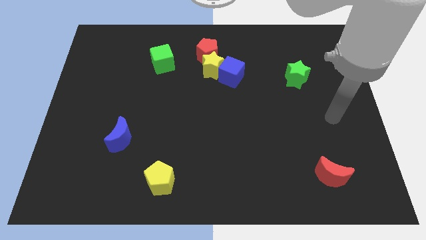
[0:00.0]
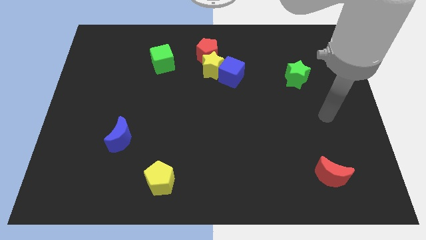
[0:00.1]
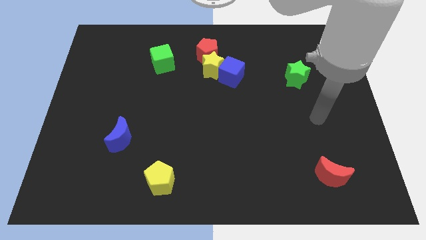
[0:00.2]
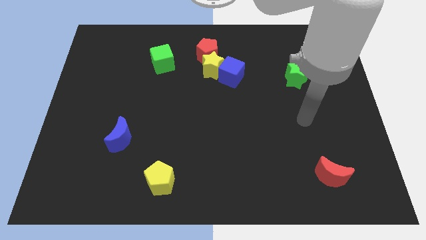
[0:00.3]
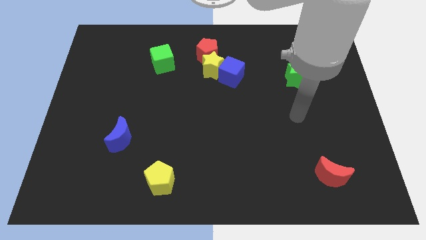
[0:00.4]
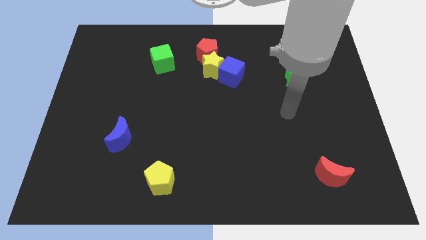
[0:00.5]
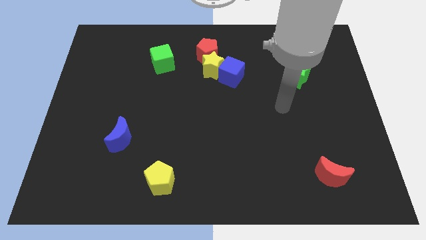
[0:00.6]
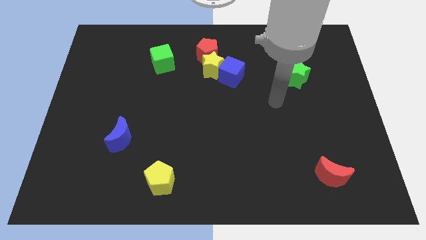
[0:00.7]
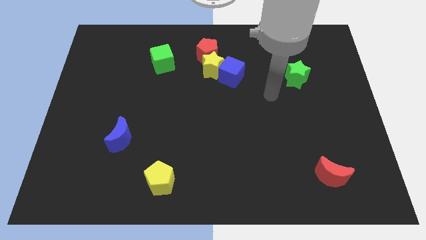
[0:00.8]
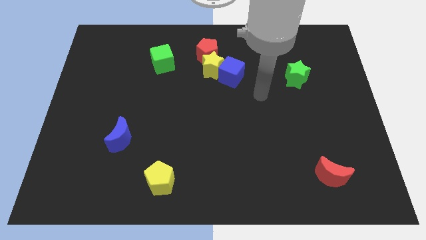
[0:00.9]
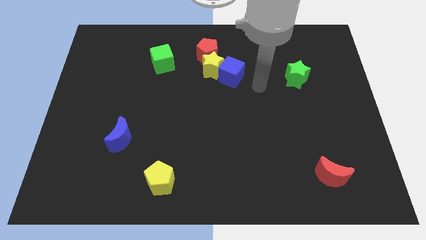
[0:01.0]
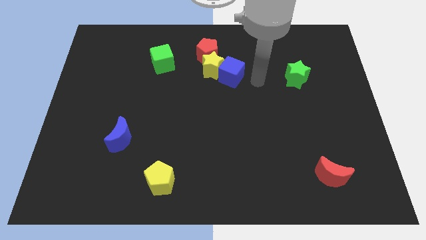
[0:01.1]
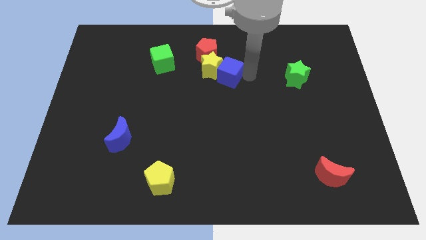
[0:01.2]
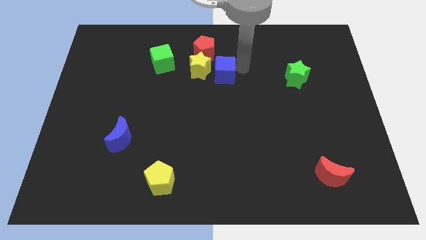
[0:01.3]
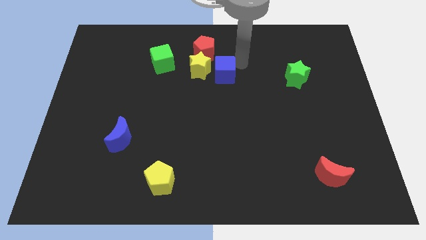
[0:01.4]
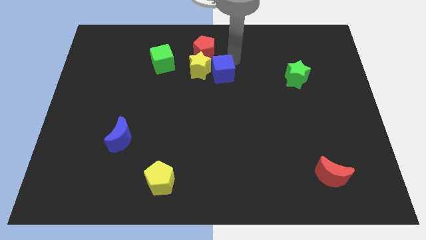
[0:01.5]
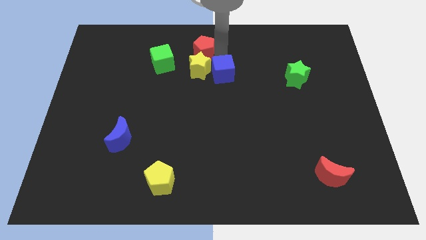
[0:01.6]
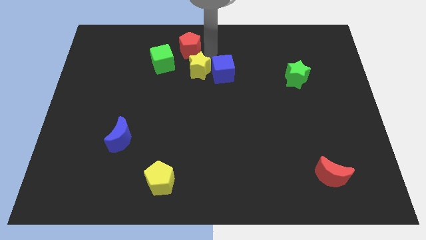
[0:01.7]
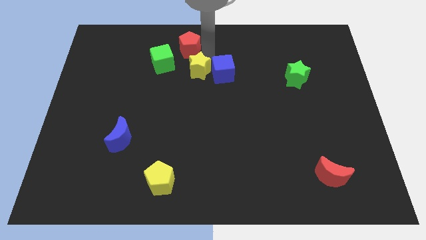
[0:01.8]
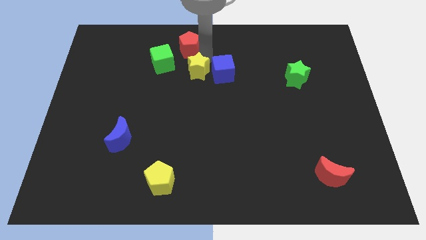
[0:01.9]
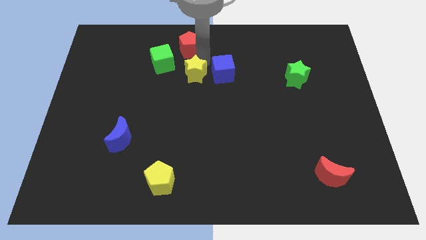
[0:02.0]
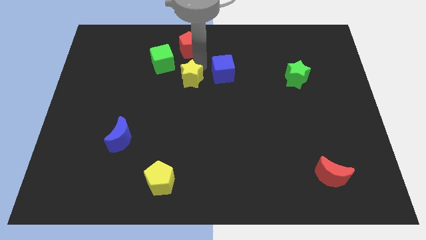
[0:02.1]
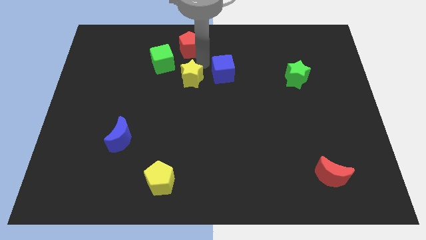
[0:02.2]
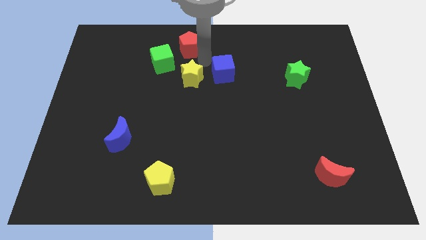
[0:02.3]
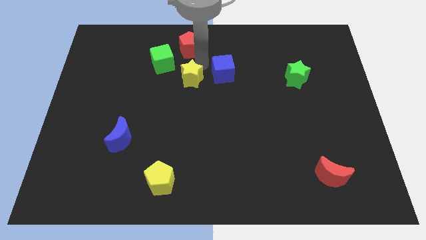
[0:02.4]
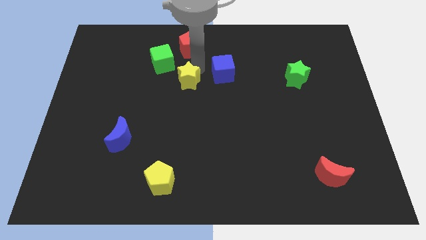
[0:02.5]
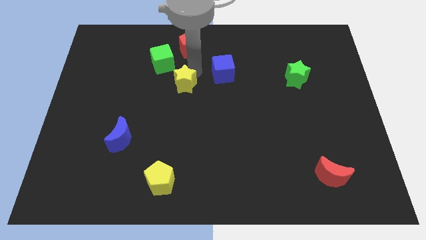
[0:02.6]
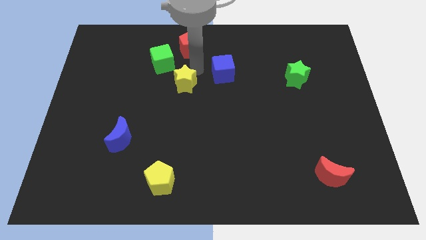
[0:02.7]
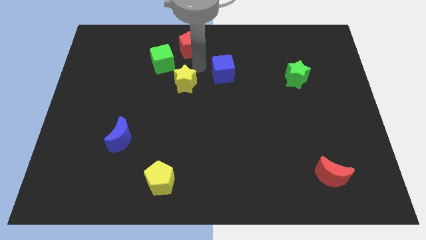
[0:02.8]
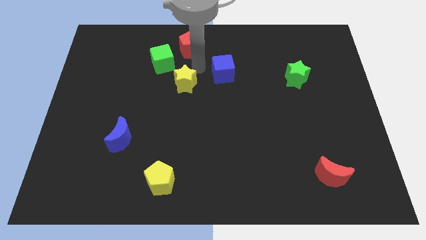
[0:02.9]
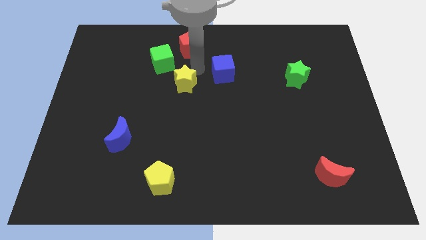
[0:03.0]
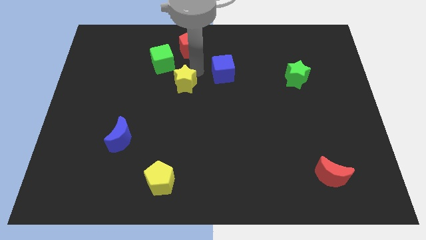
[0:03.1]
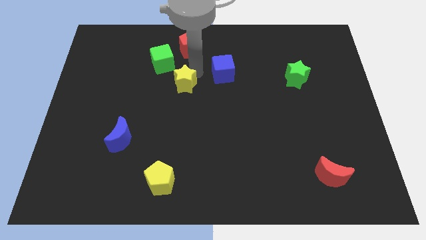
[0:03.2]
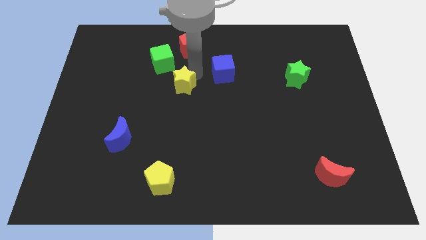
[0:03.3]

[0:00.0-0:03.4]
move the yellow star away from the red pentagon and blue cube

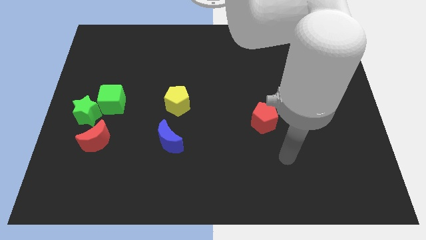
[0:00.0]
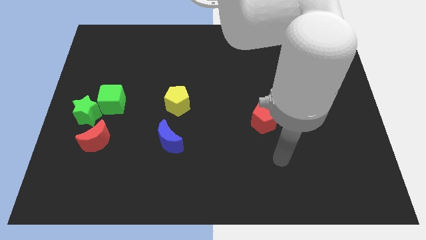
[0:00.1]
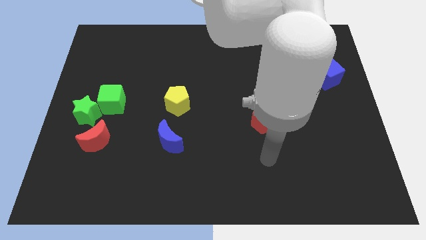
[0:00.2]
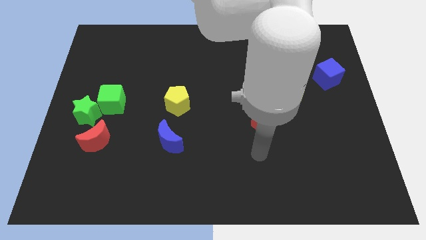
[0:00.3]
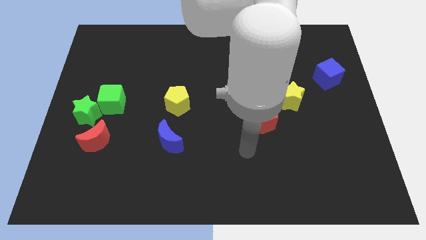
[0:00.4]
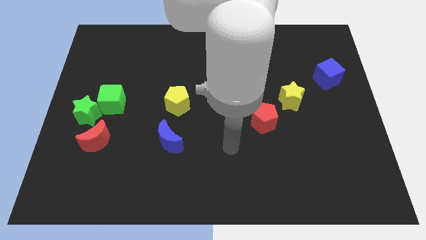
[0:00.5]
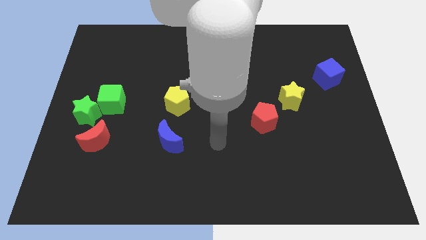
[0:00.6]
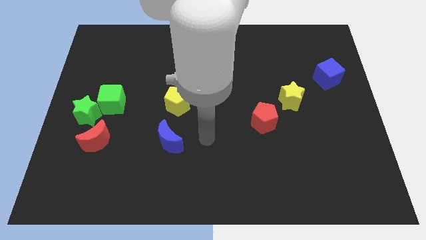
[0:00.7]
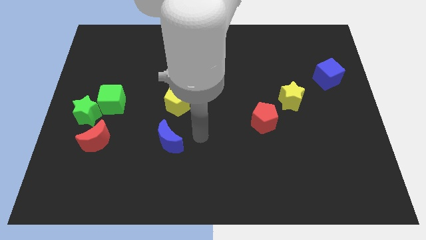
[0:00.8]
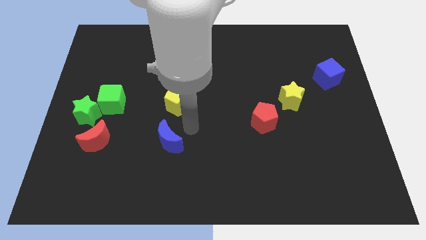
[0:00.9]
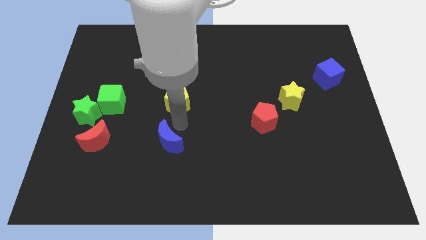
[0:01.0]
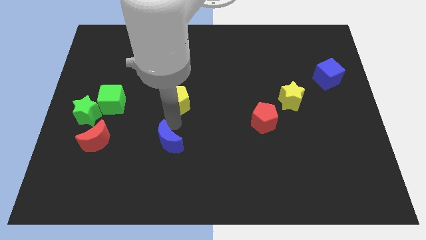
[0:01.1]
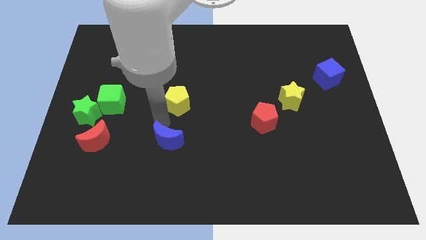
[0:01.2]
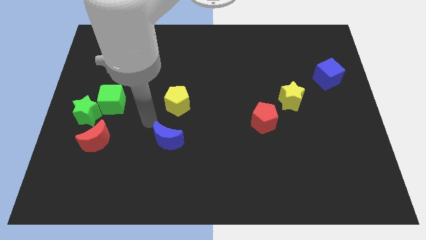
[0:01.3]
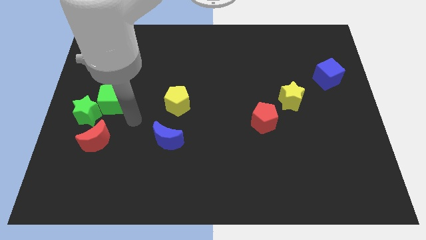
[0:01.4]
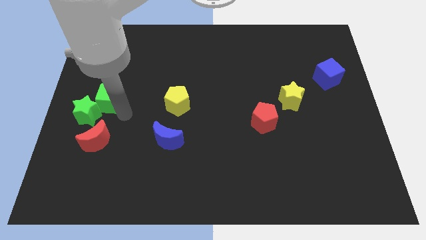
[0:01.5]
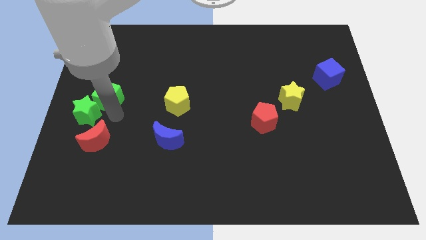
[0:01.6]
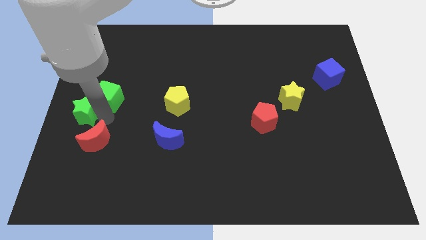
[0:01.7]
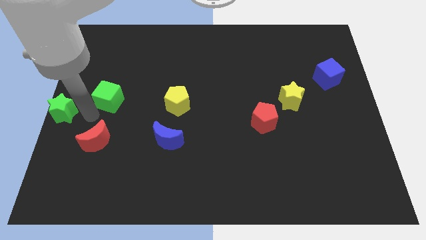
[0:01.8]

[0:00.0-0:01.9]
move the green cube away from the green star

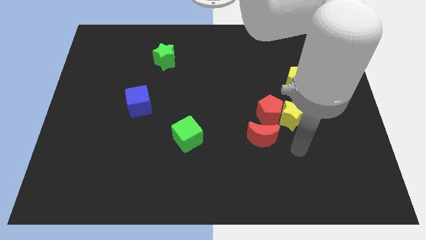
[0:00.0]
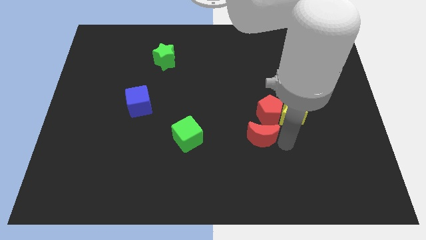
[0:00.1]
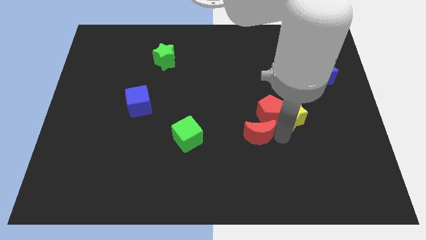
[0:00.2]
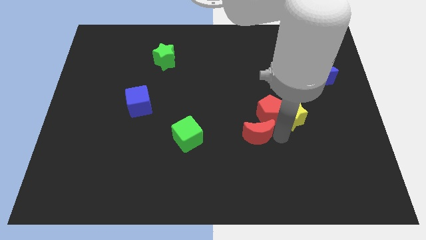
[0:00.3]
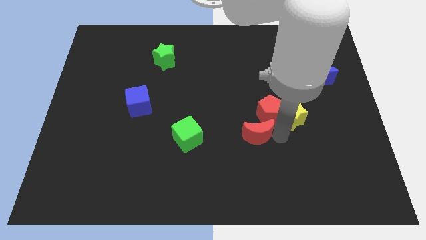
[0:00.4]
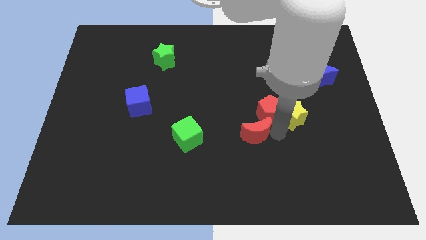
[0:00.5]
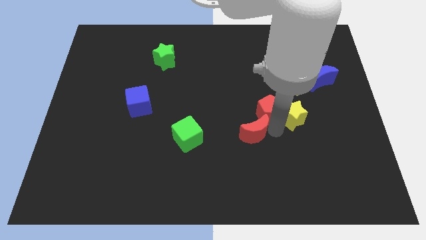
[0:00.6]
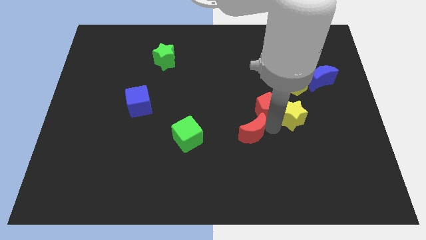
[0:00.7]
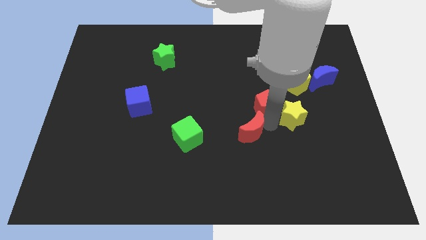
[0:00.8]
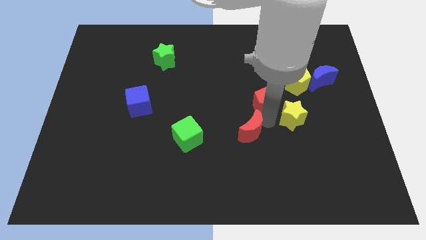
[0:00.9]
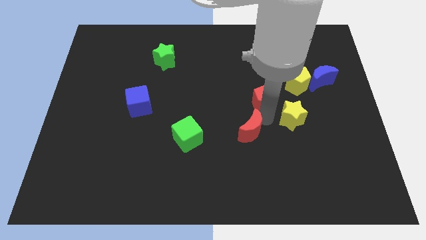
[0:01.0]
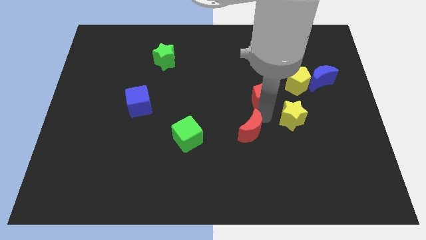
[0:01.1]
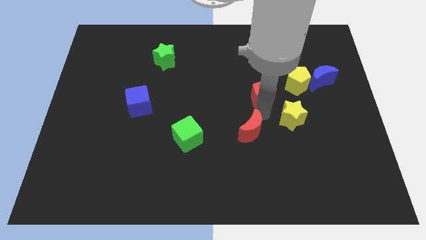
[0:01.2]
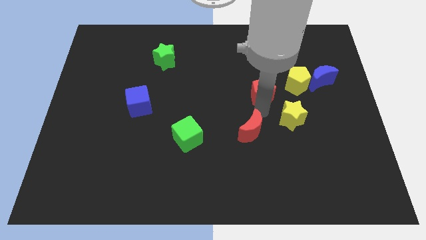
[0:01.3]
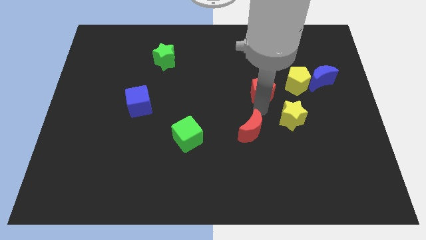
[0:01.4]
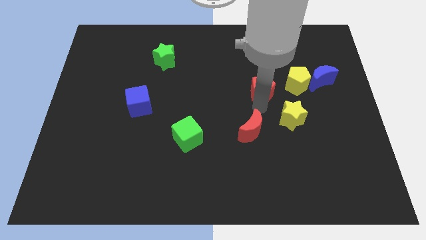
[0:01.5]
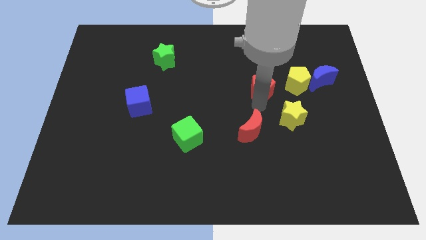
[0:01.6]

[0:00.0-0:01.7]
separate the red pentagon from the yellow star and red moon

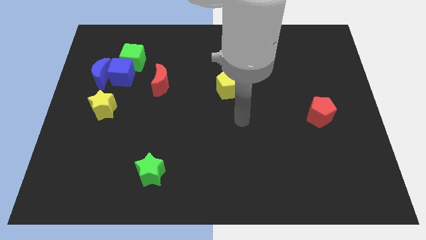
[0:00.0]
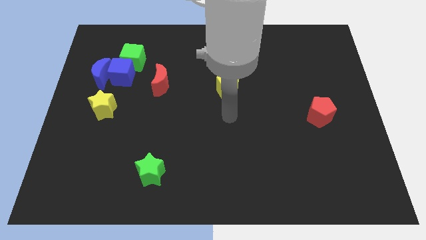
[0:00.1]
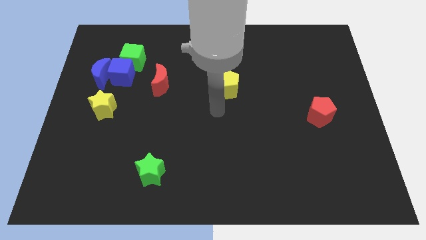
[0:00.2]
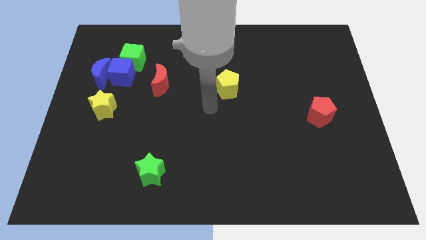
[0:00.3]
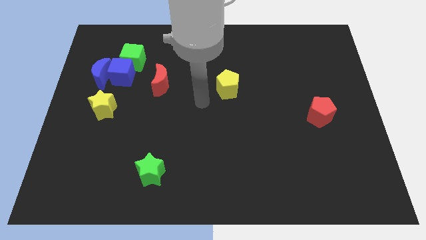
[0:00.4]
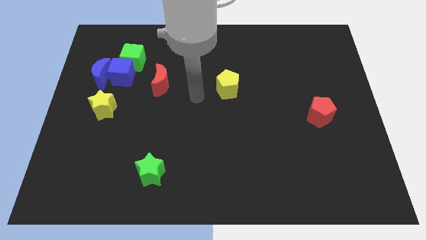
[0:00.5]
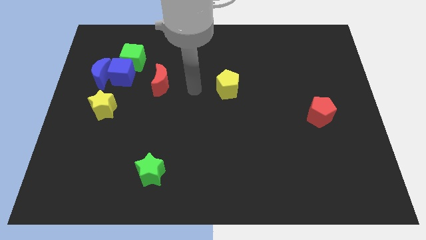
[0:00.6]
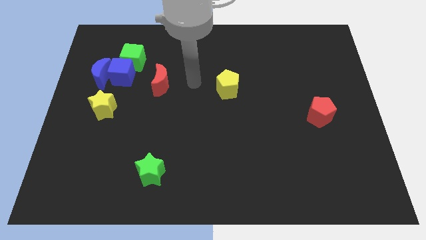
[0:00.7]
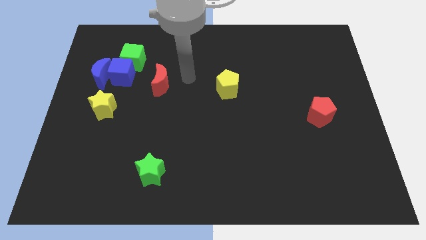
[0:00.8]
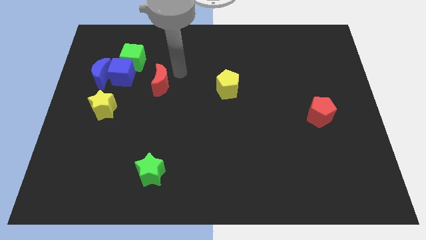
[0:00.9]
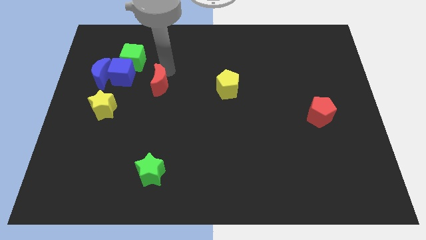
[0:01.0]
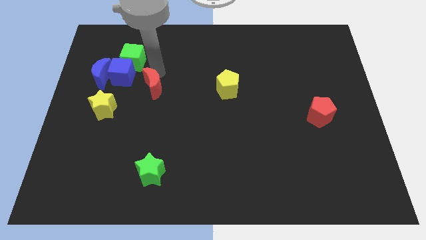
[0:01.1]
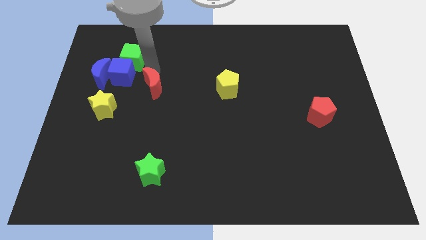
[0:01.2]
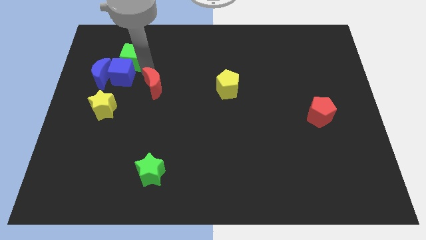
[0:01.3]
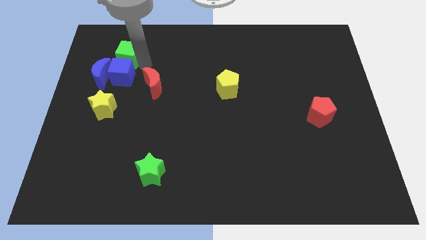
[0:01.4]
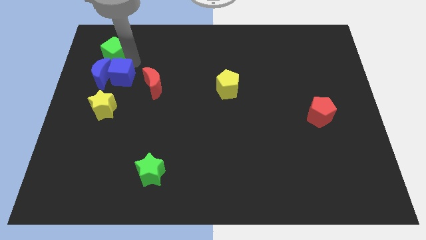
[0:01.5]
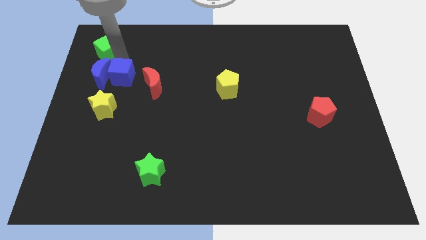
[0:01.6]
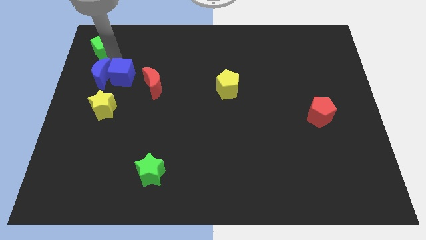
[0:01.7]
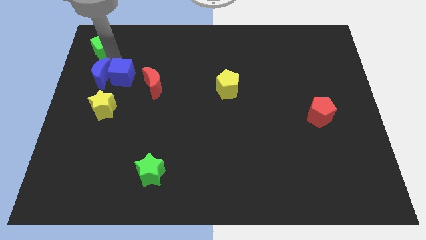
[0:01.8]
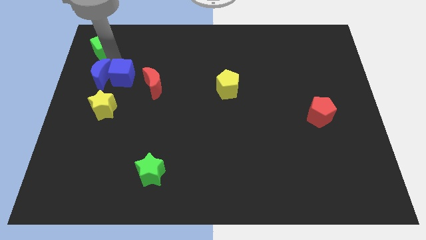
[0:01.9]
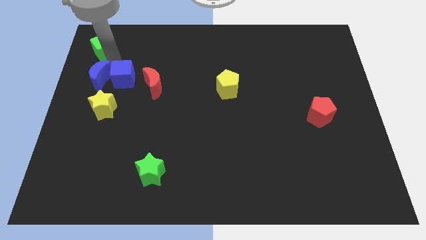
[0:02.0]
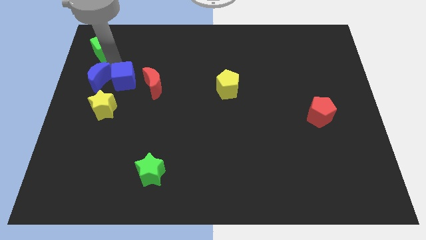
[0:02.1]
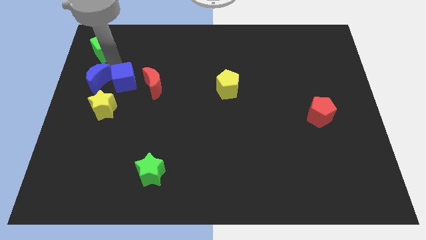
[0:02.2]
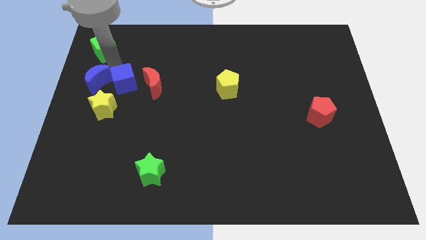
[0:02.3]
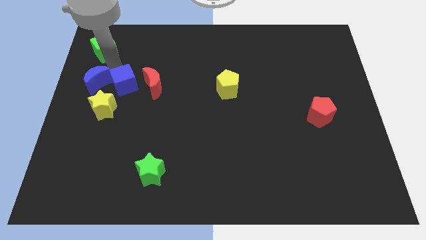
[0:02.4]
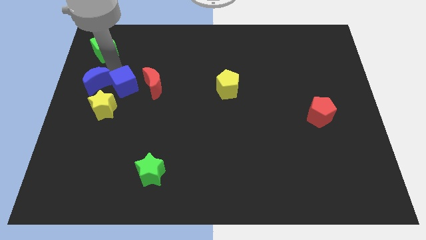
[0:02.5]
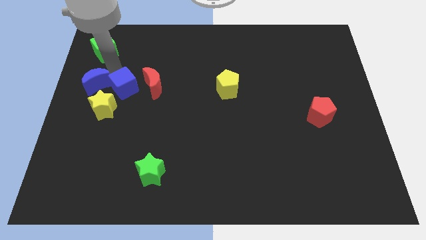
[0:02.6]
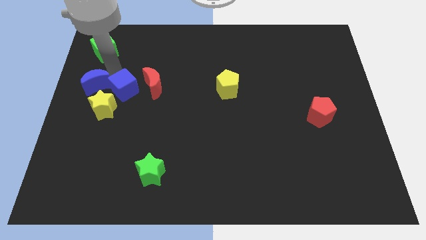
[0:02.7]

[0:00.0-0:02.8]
pull the blue cube apart from the blue moon and green cube
